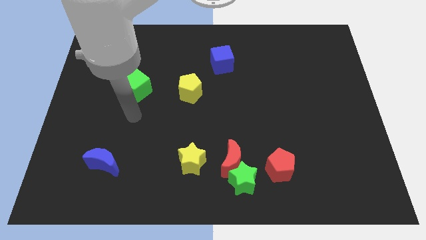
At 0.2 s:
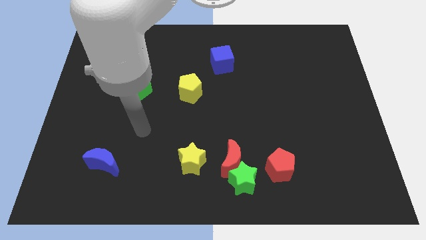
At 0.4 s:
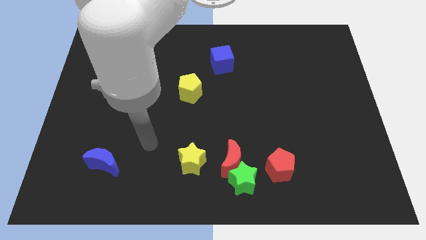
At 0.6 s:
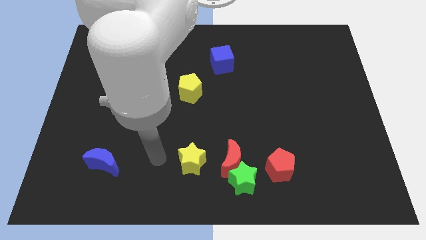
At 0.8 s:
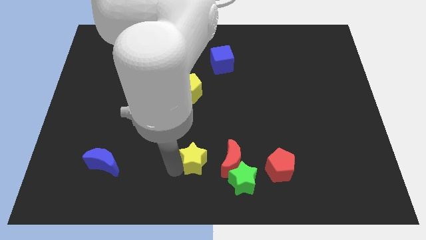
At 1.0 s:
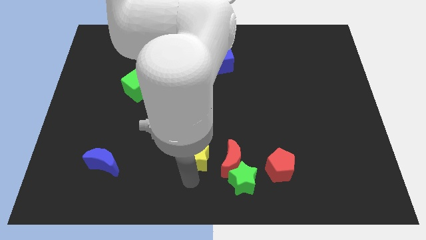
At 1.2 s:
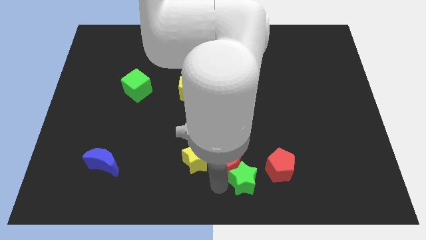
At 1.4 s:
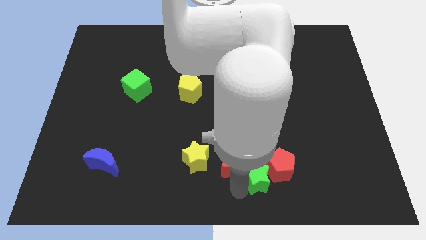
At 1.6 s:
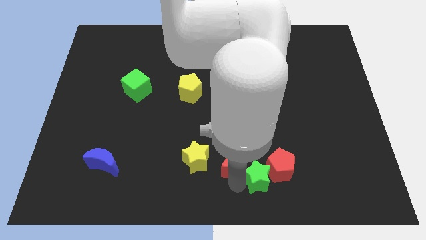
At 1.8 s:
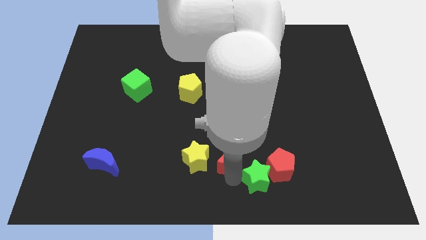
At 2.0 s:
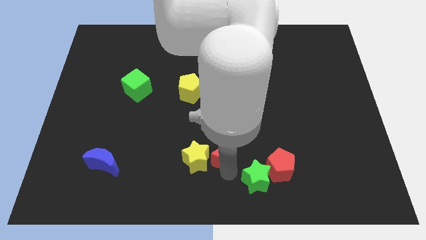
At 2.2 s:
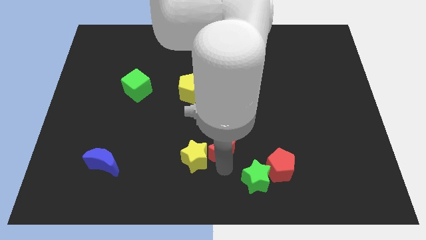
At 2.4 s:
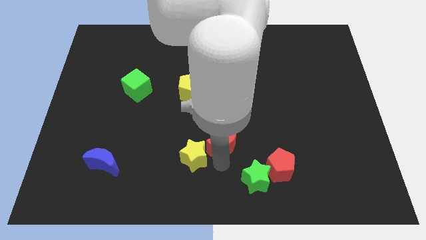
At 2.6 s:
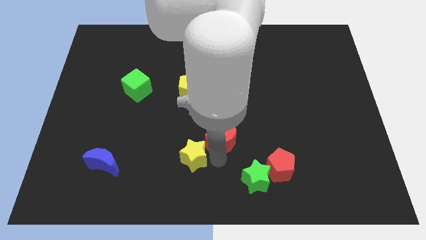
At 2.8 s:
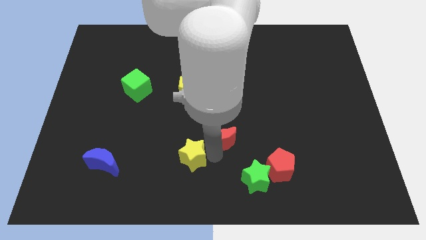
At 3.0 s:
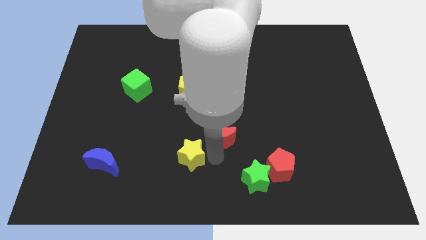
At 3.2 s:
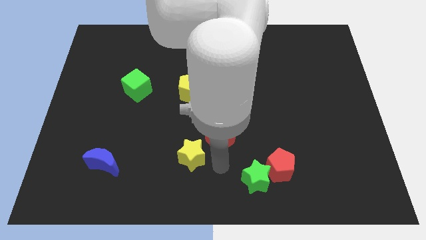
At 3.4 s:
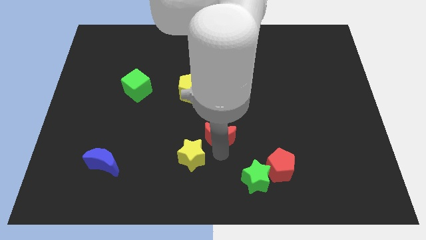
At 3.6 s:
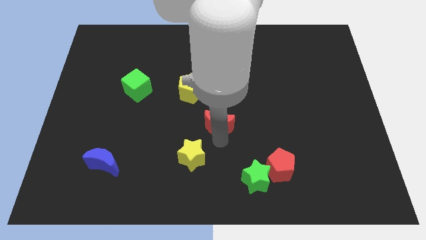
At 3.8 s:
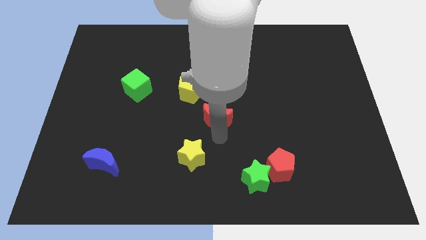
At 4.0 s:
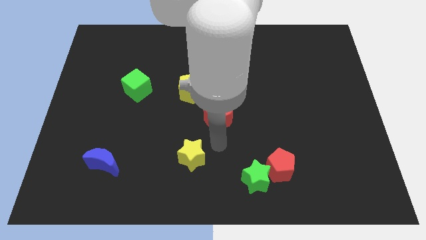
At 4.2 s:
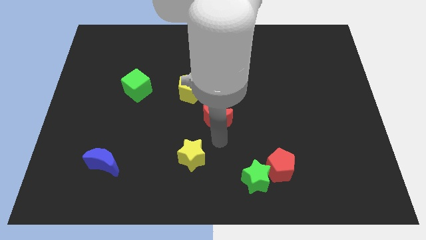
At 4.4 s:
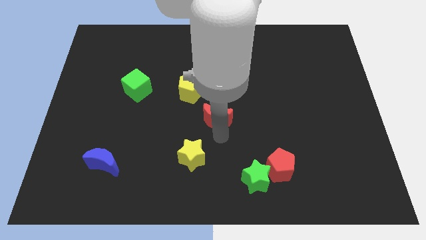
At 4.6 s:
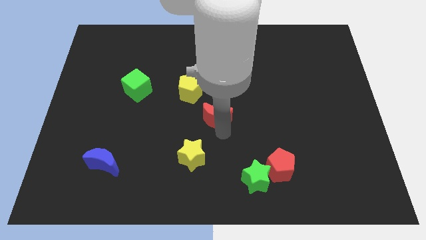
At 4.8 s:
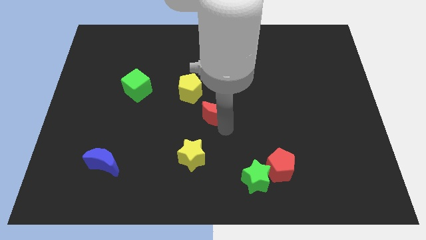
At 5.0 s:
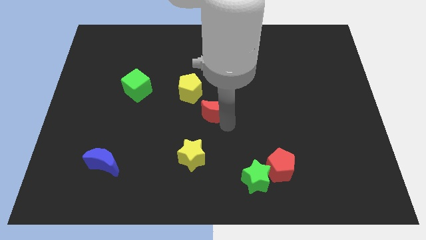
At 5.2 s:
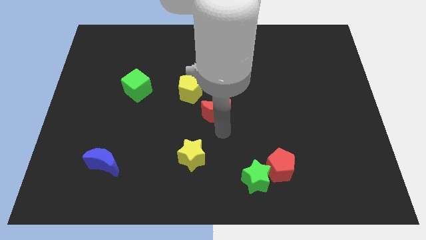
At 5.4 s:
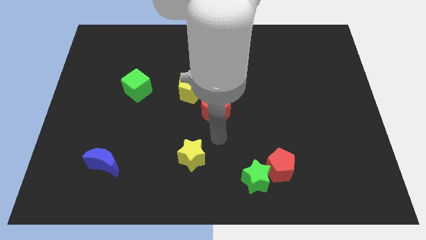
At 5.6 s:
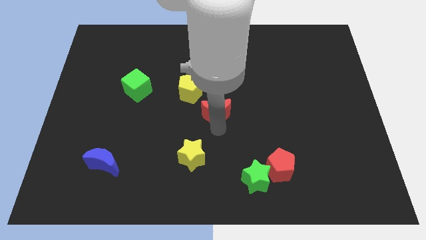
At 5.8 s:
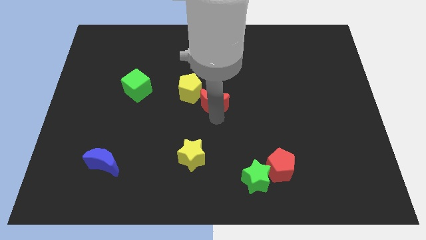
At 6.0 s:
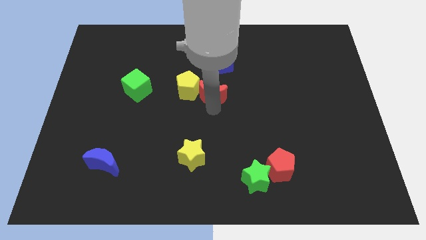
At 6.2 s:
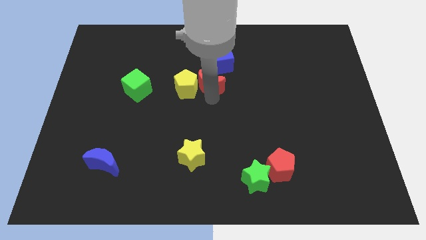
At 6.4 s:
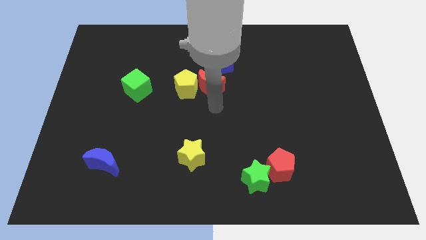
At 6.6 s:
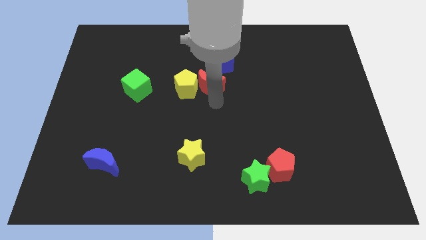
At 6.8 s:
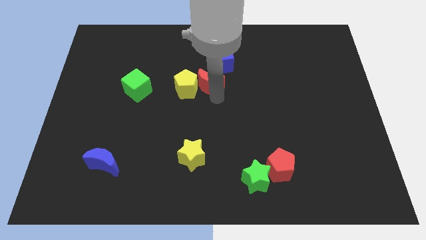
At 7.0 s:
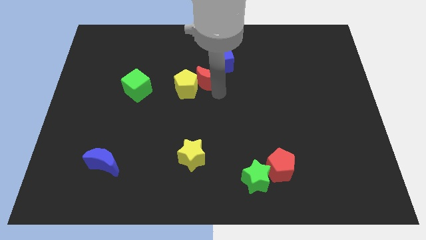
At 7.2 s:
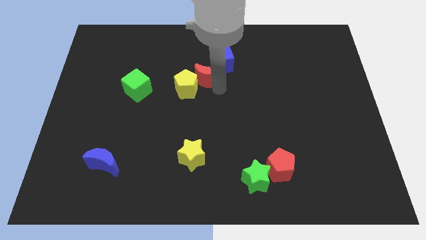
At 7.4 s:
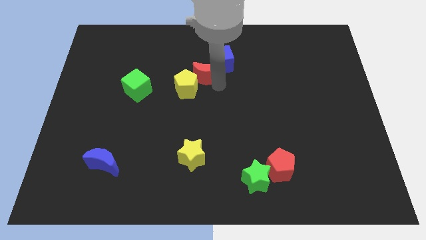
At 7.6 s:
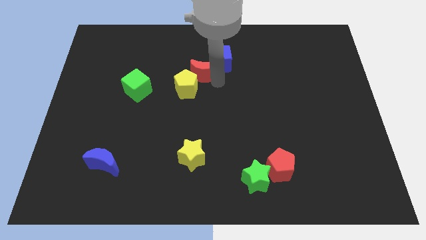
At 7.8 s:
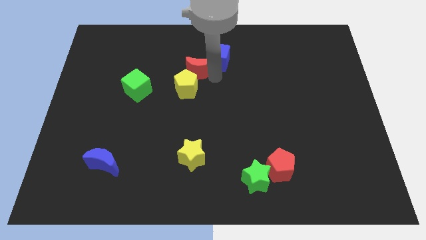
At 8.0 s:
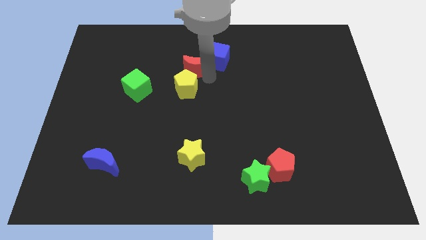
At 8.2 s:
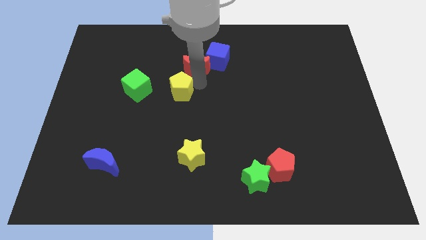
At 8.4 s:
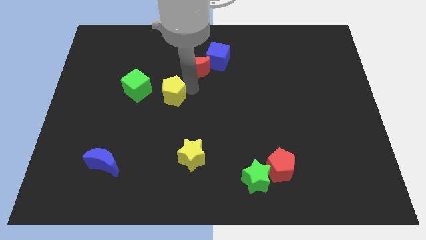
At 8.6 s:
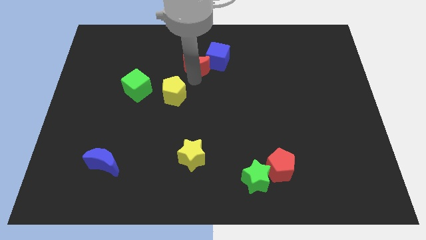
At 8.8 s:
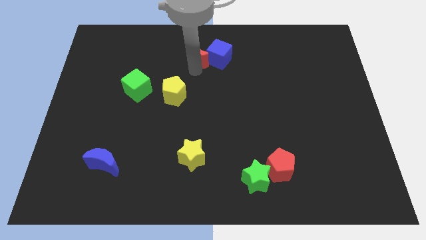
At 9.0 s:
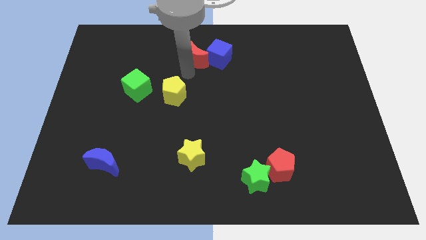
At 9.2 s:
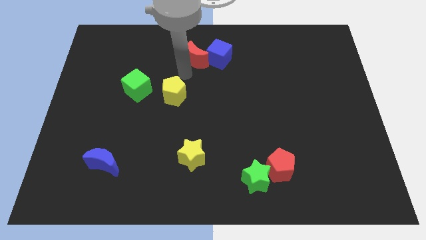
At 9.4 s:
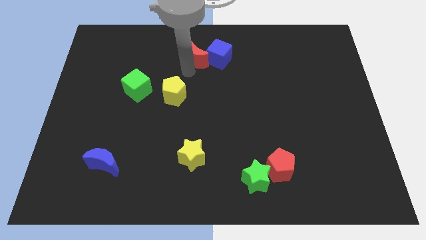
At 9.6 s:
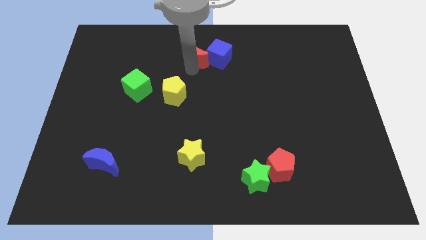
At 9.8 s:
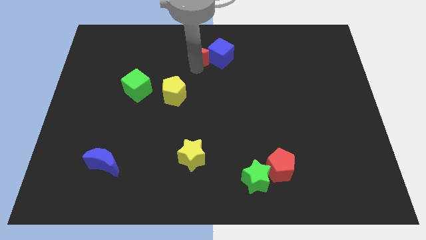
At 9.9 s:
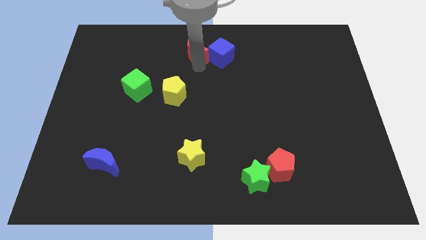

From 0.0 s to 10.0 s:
put the red moon to the top

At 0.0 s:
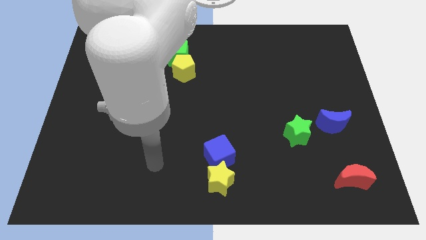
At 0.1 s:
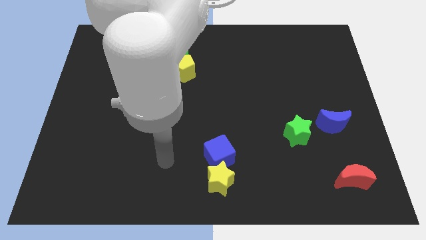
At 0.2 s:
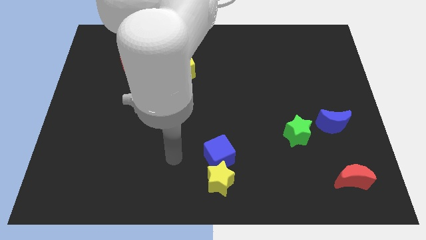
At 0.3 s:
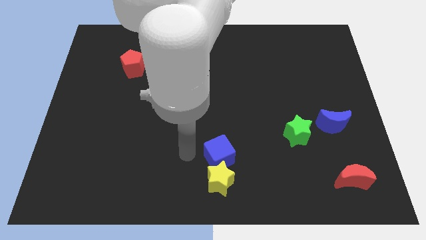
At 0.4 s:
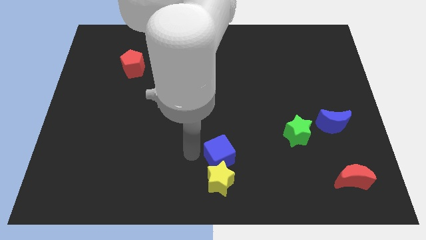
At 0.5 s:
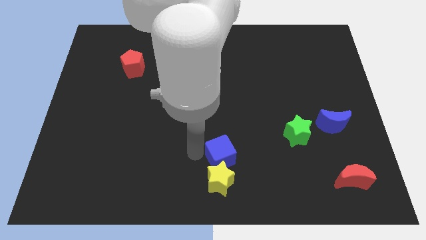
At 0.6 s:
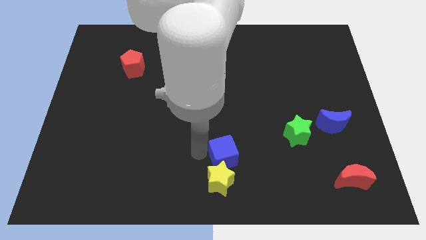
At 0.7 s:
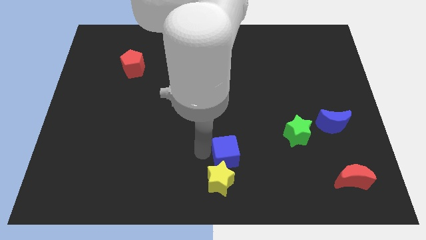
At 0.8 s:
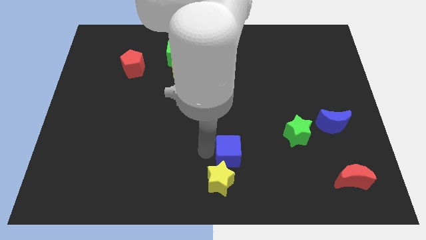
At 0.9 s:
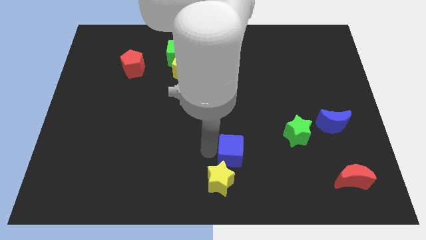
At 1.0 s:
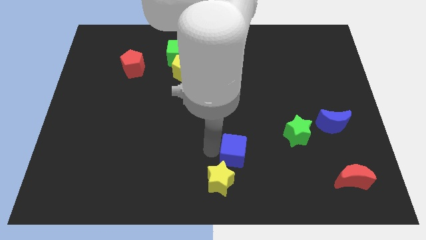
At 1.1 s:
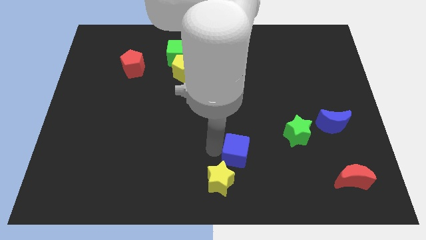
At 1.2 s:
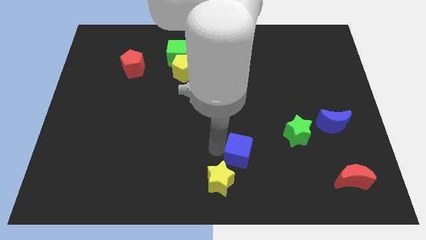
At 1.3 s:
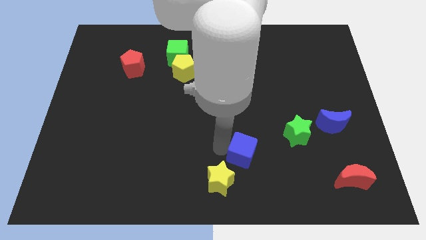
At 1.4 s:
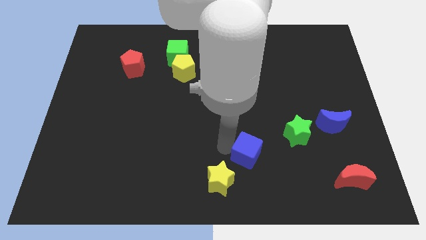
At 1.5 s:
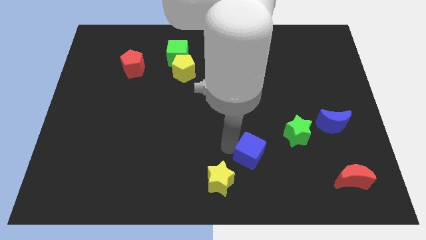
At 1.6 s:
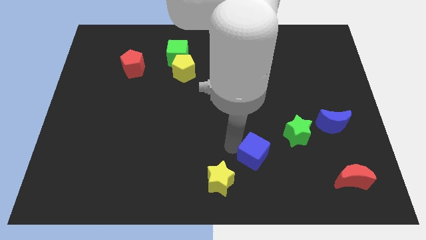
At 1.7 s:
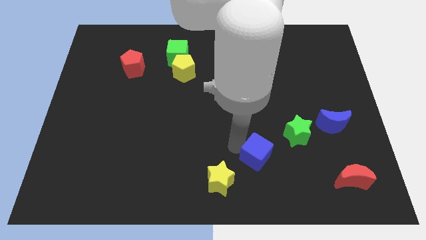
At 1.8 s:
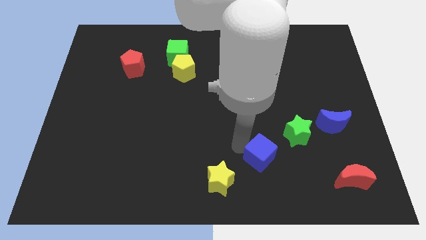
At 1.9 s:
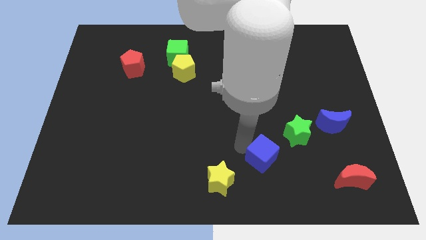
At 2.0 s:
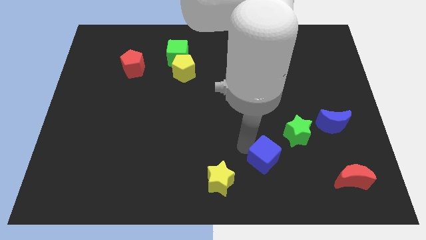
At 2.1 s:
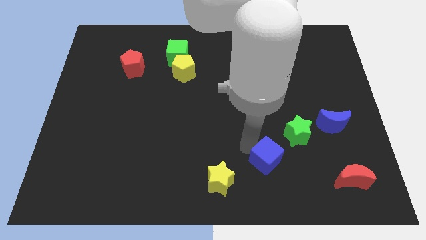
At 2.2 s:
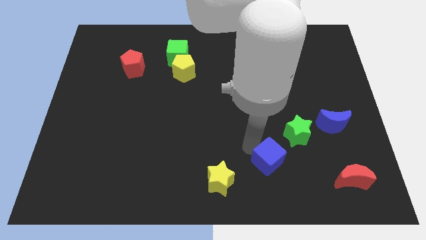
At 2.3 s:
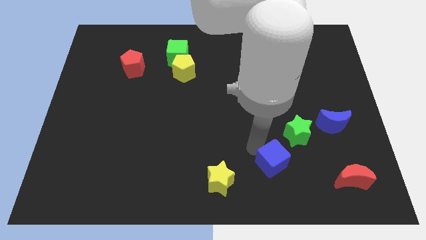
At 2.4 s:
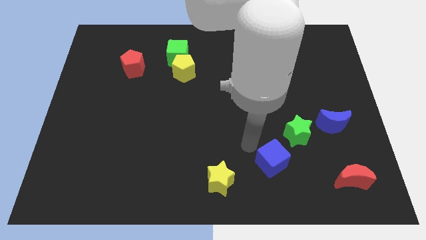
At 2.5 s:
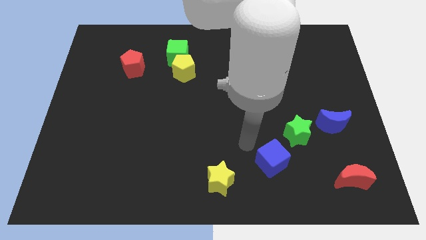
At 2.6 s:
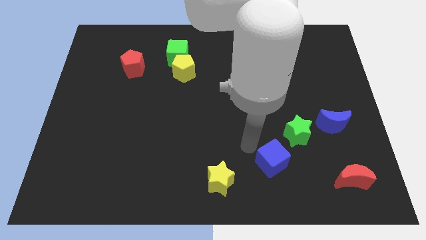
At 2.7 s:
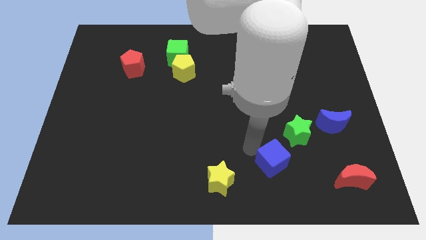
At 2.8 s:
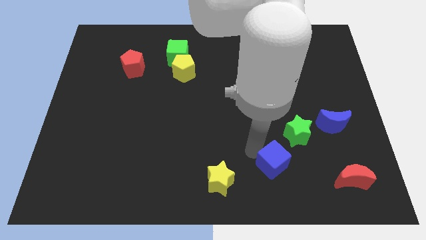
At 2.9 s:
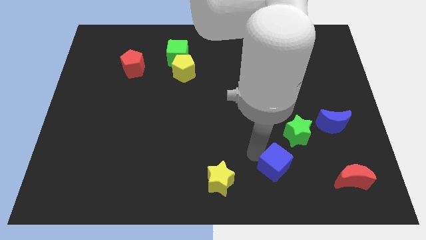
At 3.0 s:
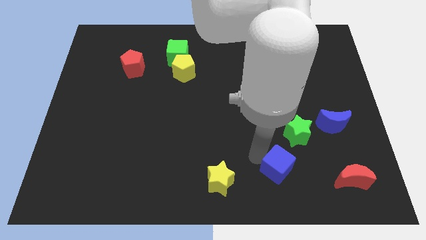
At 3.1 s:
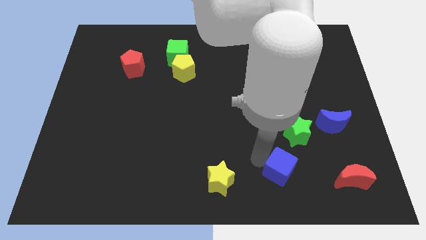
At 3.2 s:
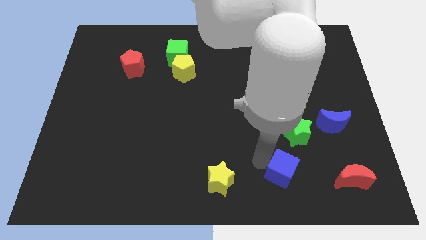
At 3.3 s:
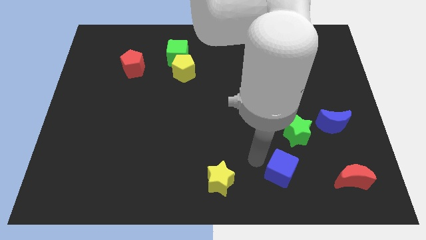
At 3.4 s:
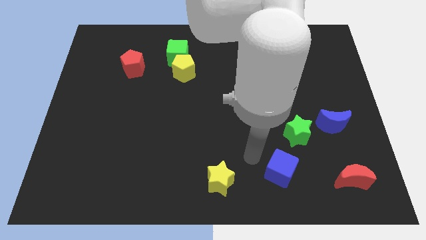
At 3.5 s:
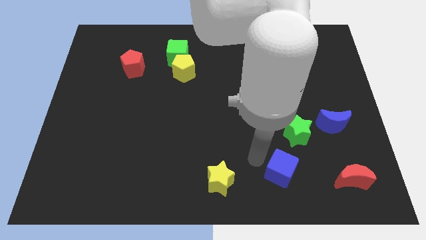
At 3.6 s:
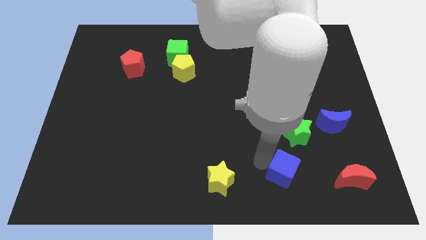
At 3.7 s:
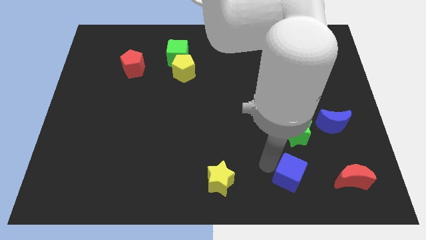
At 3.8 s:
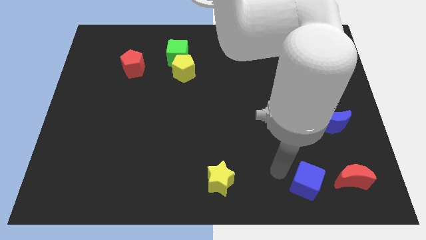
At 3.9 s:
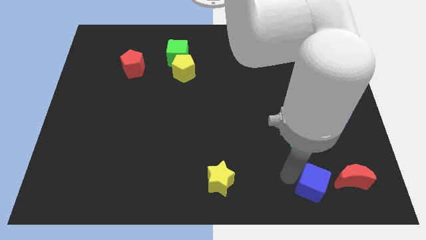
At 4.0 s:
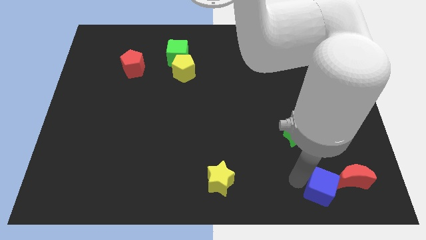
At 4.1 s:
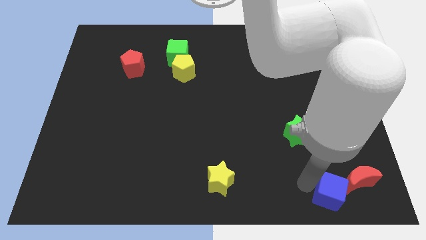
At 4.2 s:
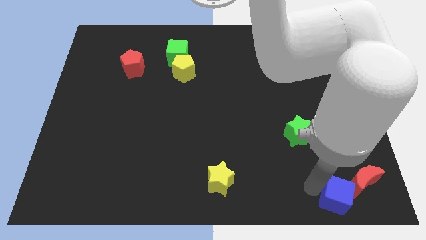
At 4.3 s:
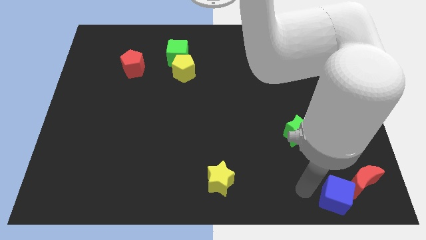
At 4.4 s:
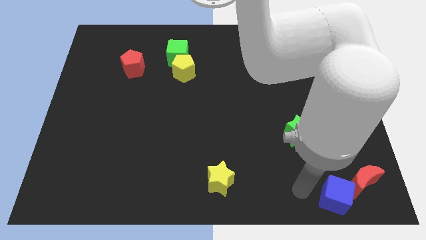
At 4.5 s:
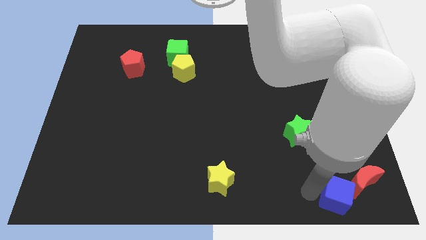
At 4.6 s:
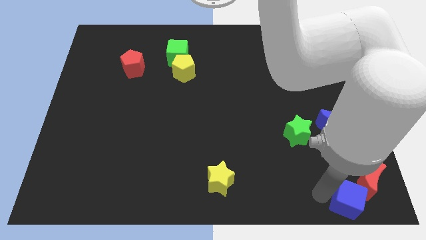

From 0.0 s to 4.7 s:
push the blue cube to the bottom right corner
